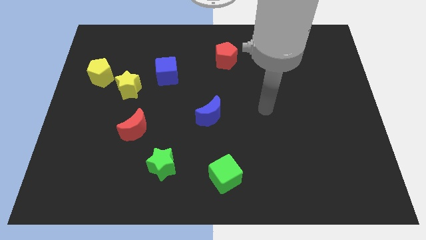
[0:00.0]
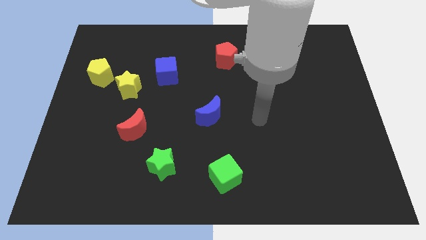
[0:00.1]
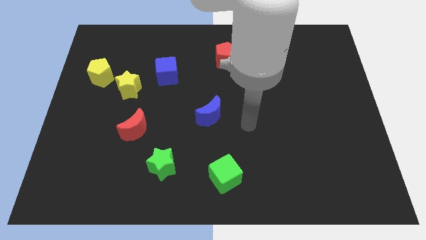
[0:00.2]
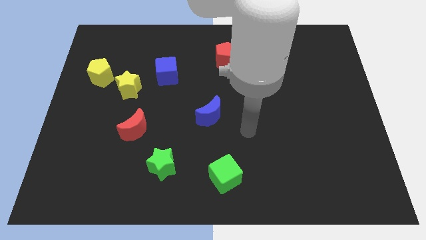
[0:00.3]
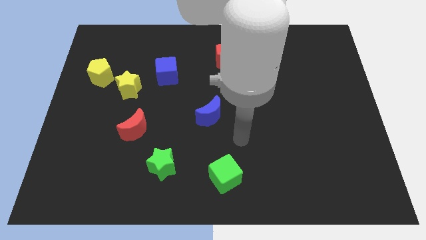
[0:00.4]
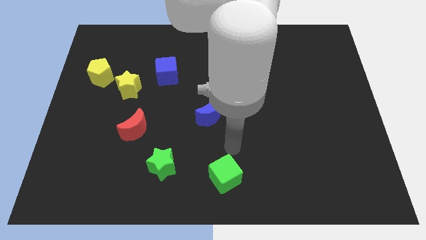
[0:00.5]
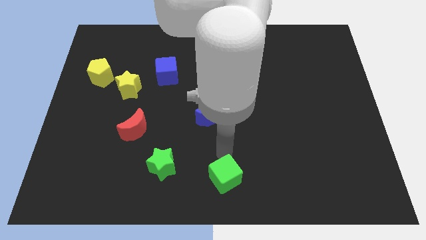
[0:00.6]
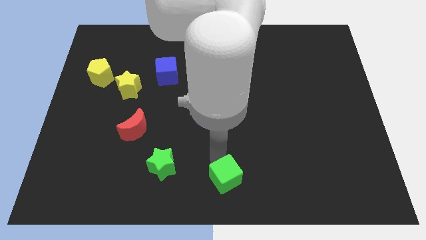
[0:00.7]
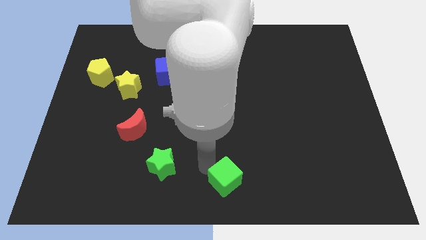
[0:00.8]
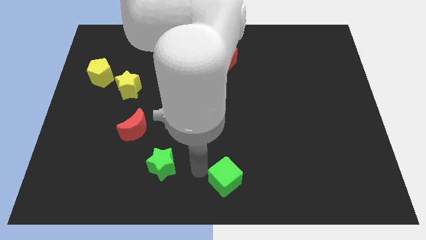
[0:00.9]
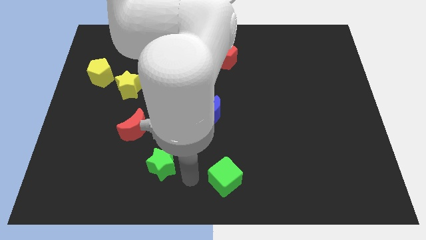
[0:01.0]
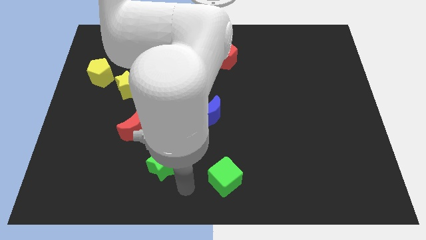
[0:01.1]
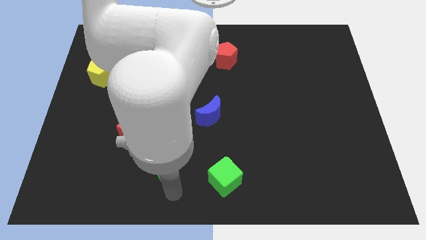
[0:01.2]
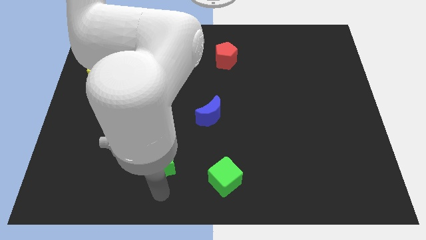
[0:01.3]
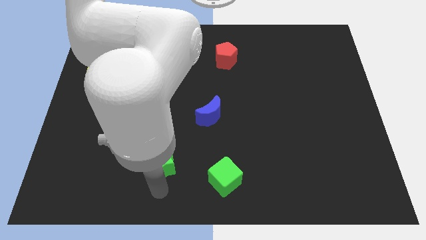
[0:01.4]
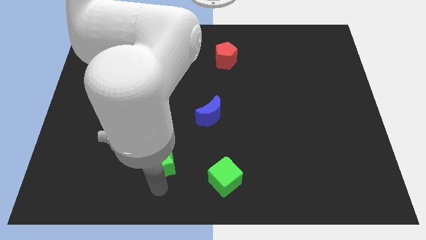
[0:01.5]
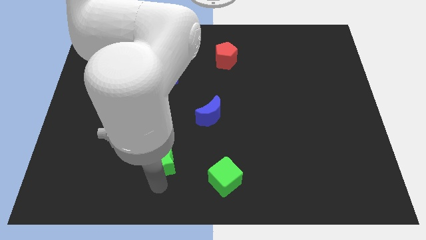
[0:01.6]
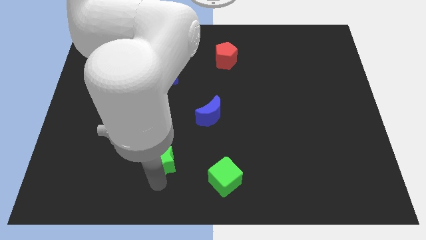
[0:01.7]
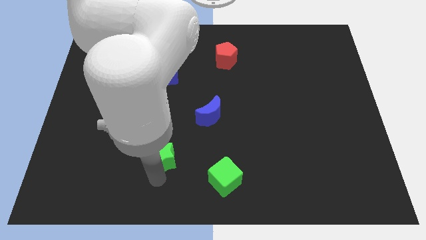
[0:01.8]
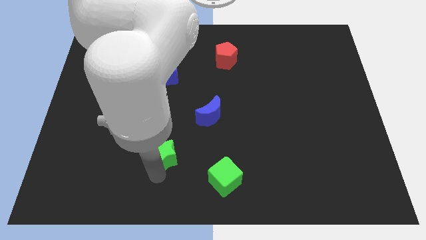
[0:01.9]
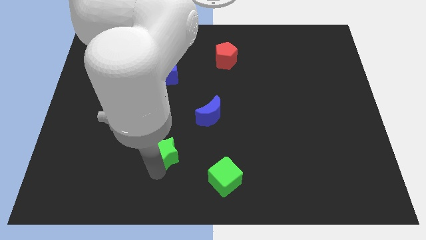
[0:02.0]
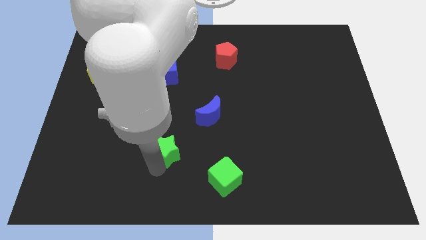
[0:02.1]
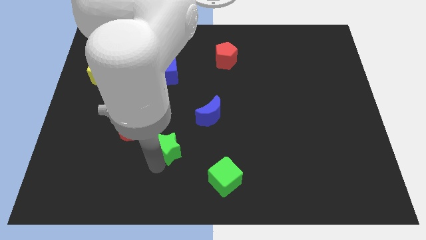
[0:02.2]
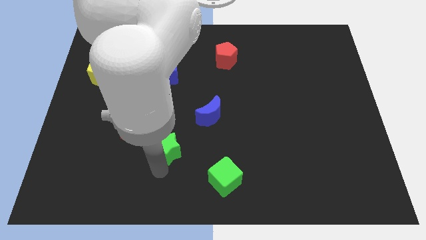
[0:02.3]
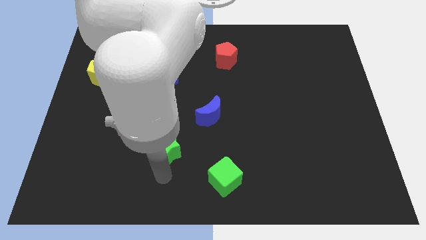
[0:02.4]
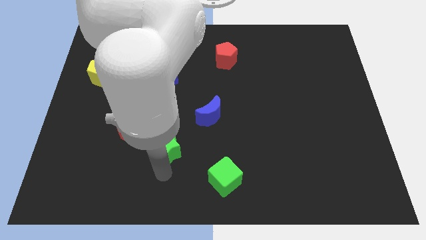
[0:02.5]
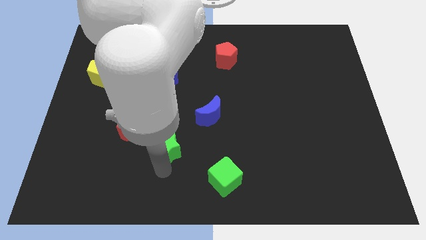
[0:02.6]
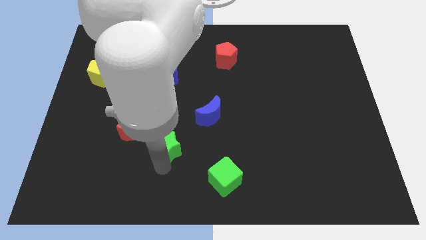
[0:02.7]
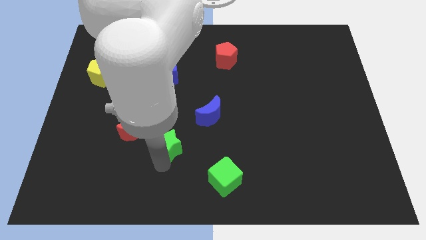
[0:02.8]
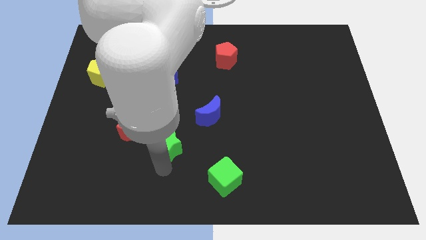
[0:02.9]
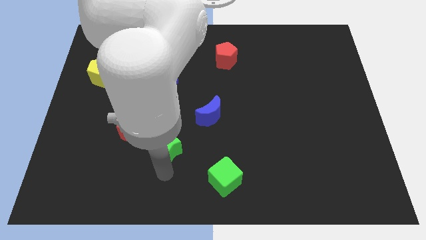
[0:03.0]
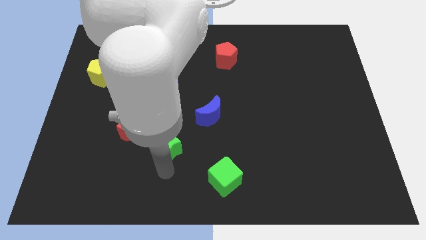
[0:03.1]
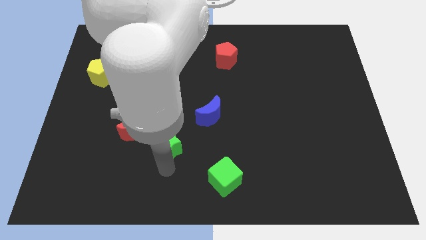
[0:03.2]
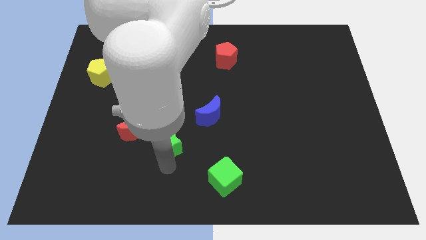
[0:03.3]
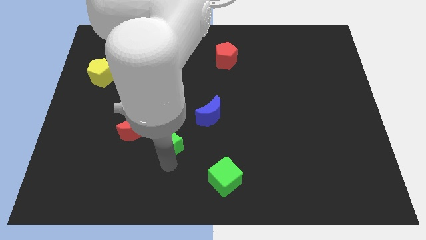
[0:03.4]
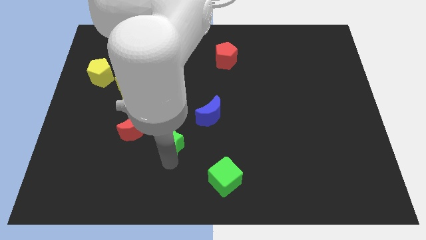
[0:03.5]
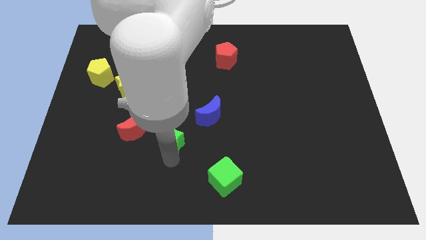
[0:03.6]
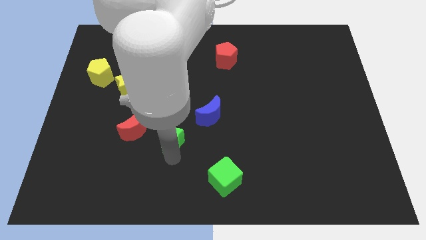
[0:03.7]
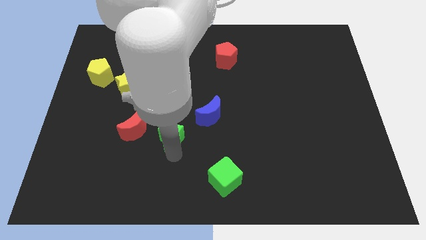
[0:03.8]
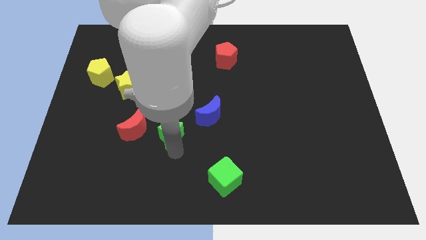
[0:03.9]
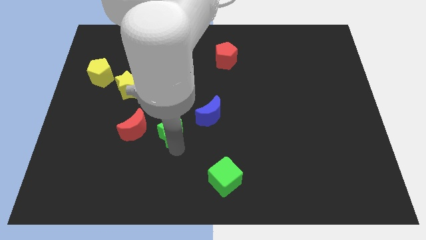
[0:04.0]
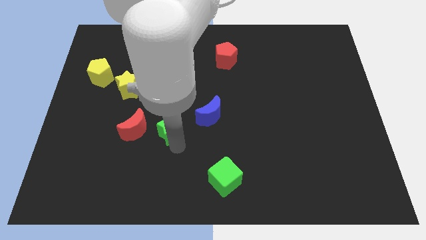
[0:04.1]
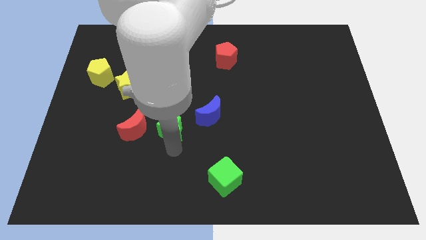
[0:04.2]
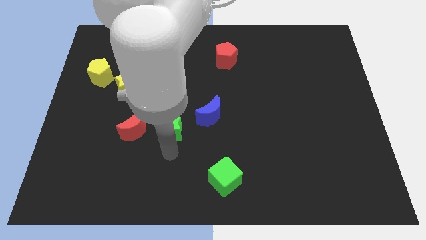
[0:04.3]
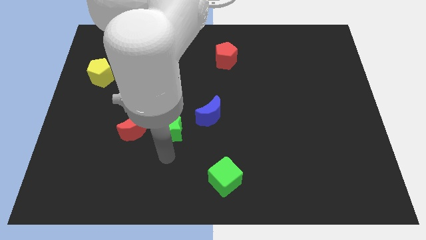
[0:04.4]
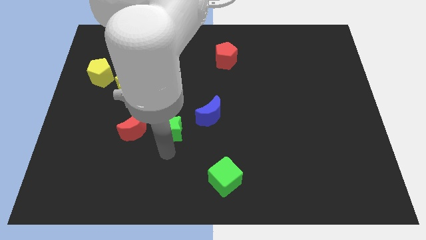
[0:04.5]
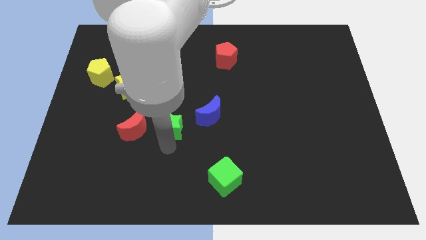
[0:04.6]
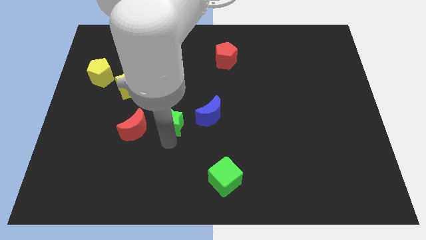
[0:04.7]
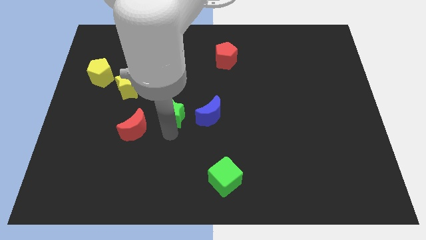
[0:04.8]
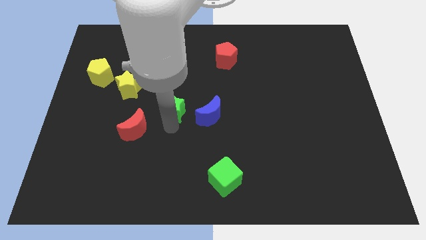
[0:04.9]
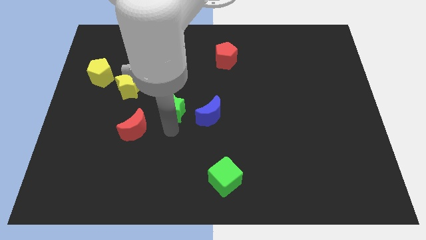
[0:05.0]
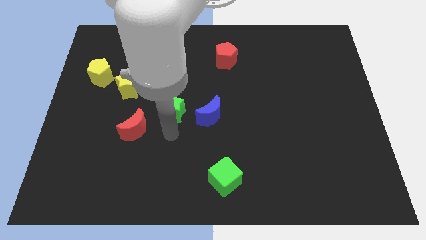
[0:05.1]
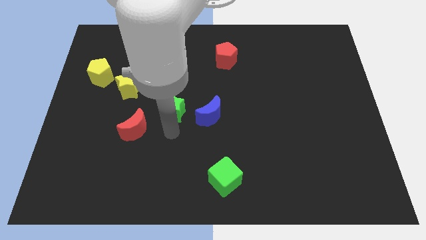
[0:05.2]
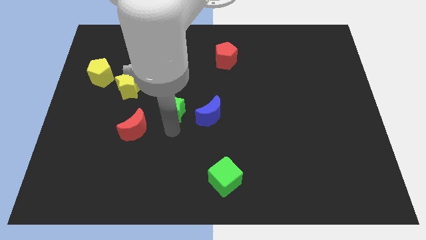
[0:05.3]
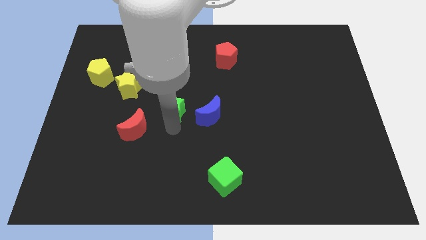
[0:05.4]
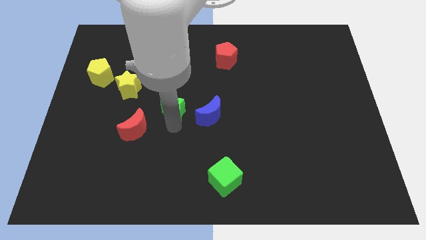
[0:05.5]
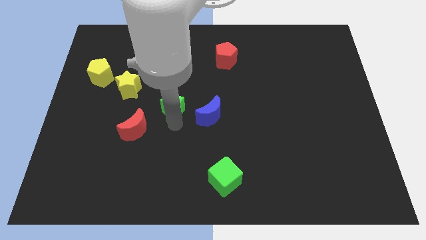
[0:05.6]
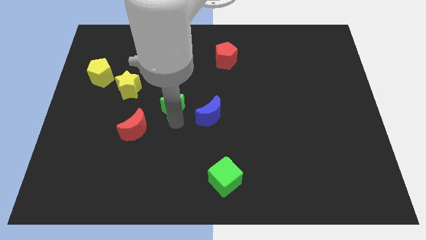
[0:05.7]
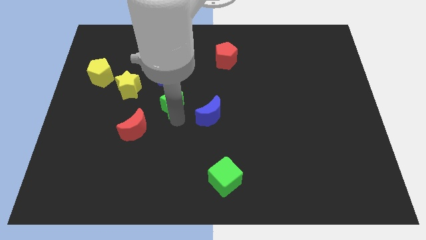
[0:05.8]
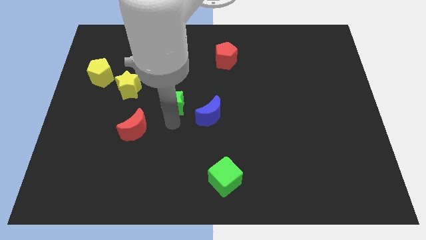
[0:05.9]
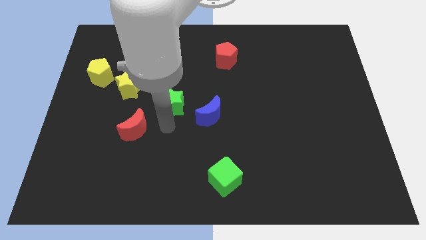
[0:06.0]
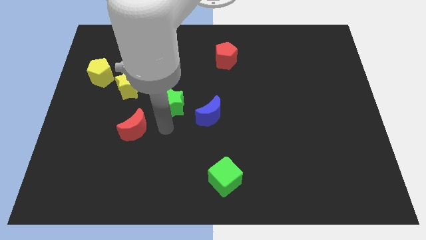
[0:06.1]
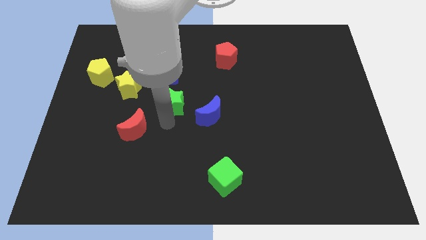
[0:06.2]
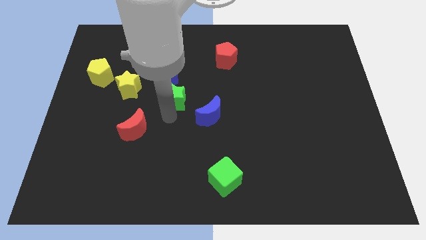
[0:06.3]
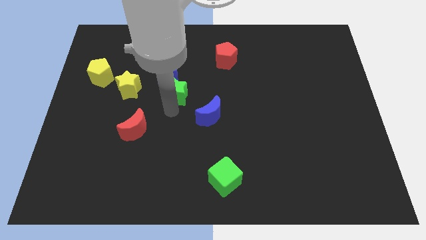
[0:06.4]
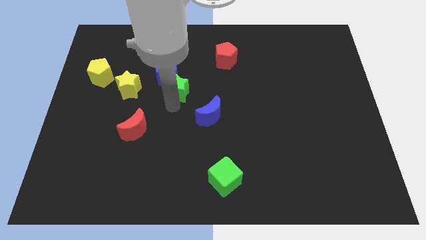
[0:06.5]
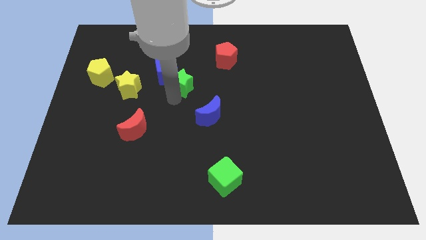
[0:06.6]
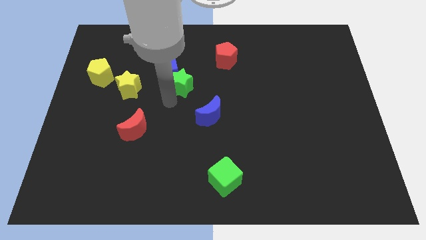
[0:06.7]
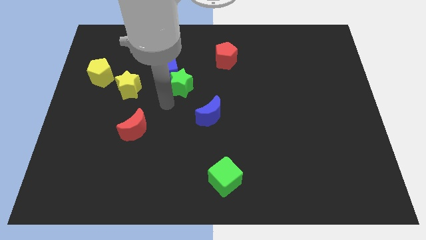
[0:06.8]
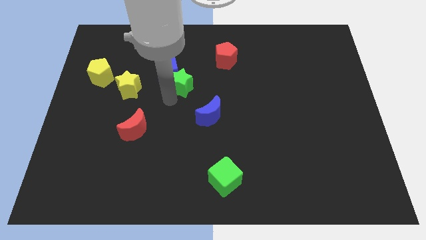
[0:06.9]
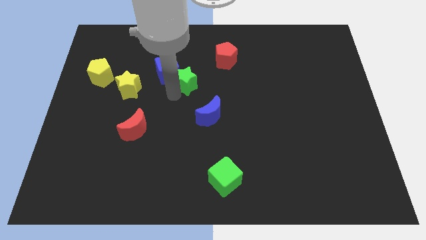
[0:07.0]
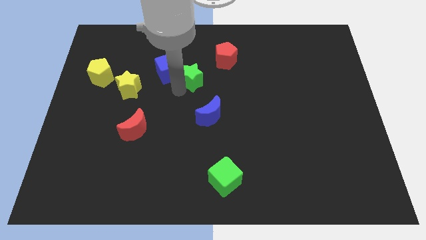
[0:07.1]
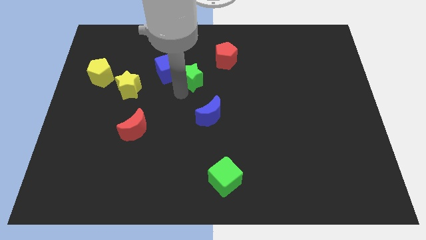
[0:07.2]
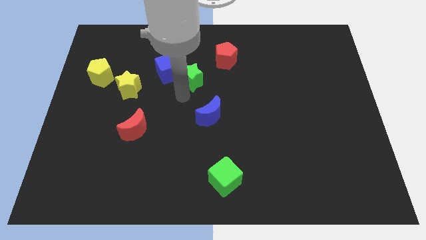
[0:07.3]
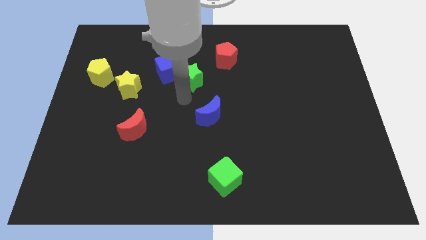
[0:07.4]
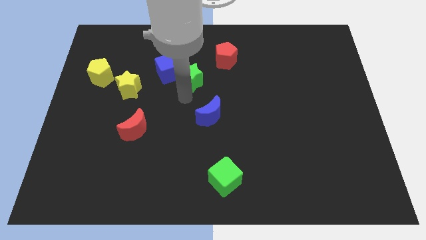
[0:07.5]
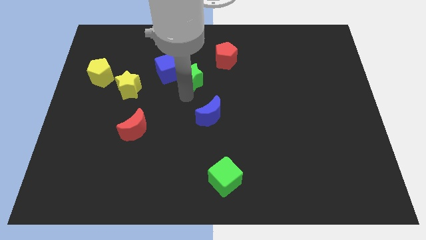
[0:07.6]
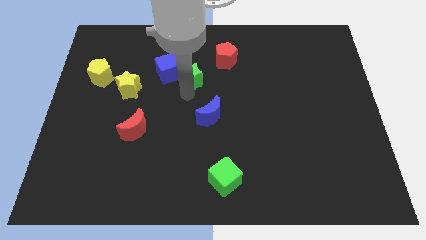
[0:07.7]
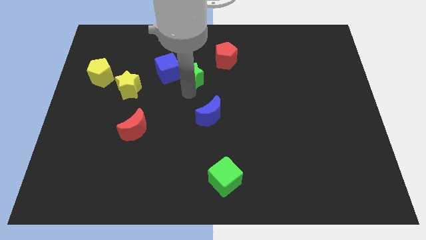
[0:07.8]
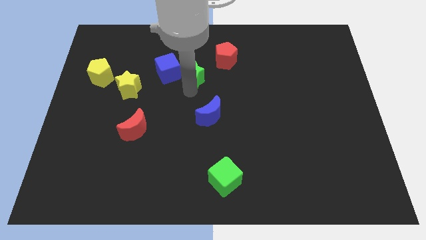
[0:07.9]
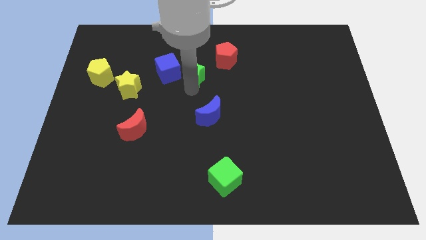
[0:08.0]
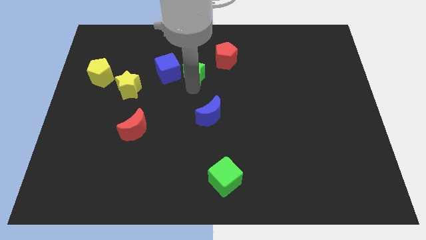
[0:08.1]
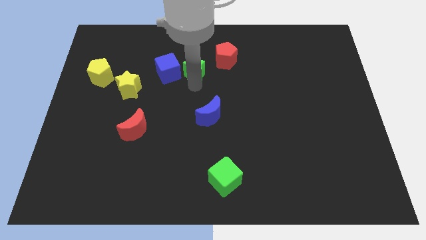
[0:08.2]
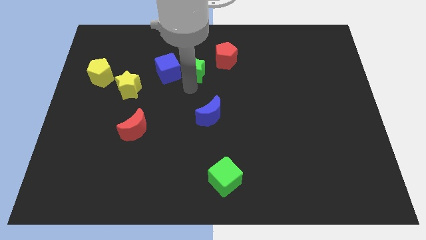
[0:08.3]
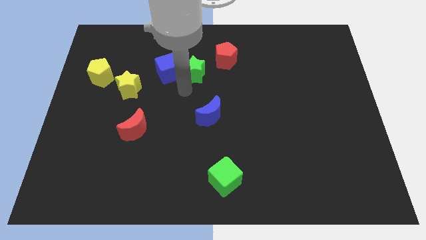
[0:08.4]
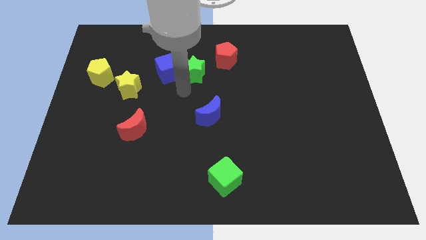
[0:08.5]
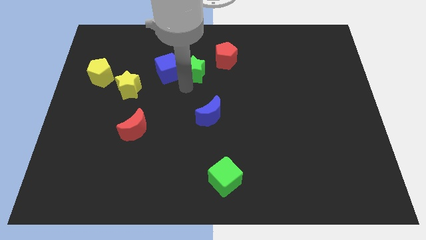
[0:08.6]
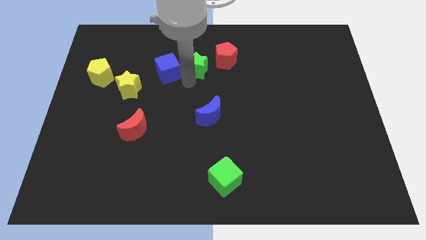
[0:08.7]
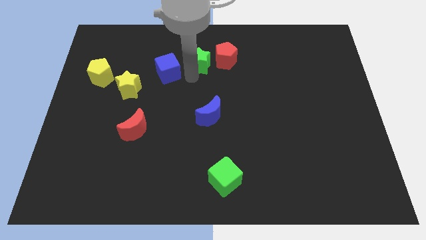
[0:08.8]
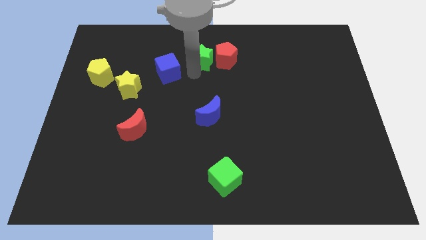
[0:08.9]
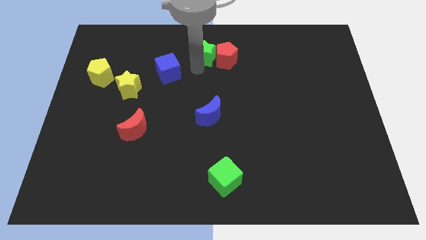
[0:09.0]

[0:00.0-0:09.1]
push the green star to the top
